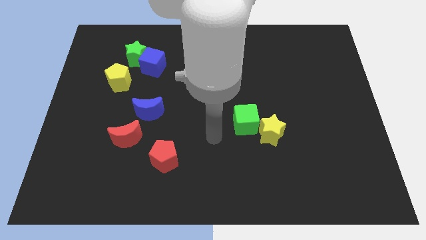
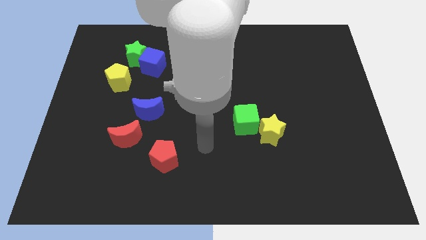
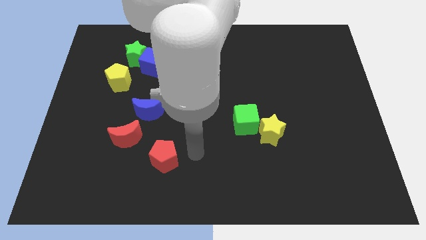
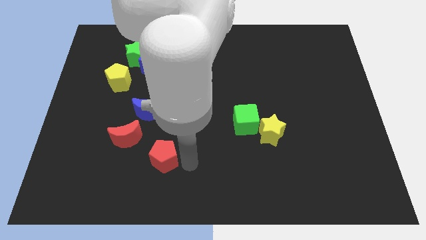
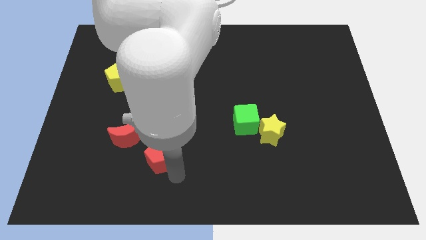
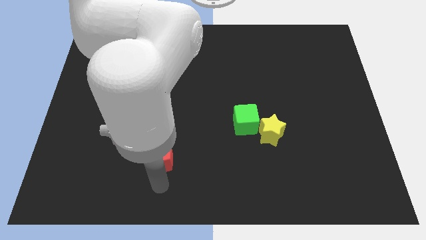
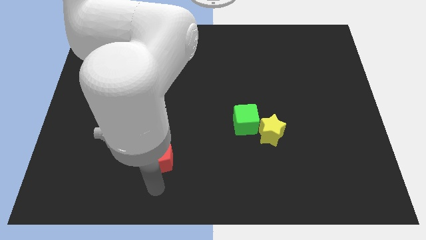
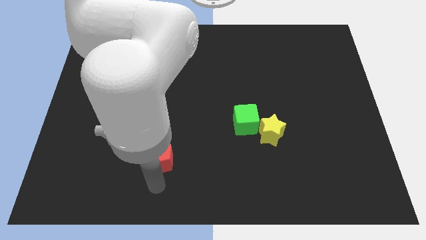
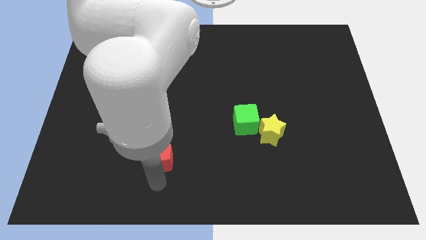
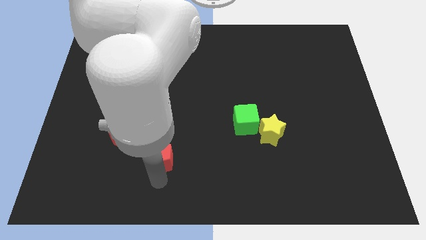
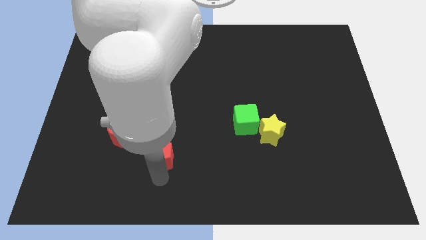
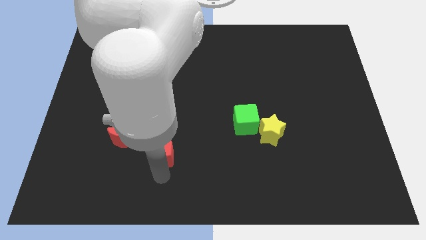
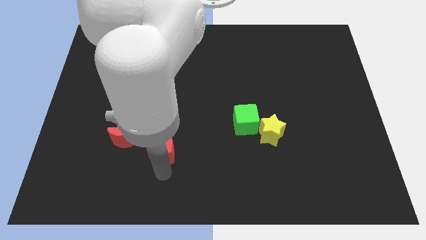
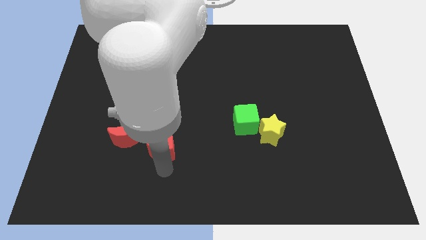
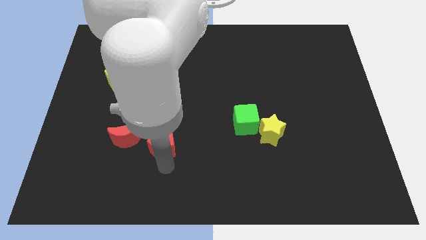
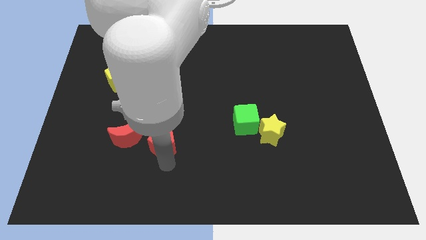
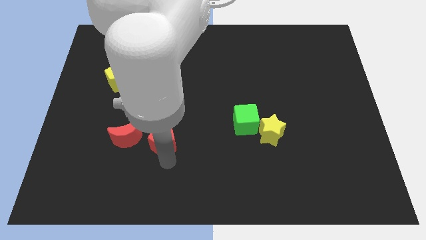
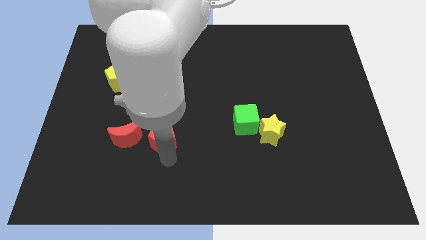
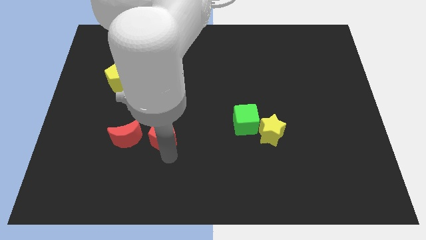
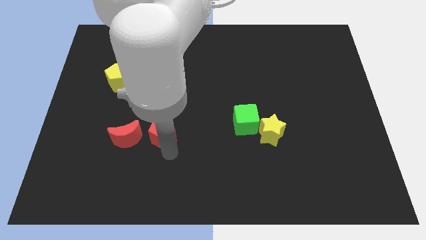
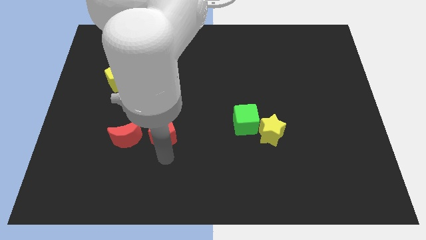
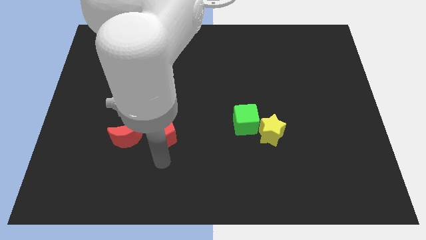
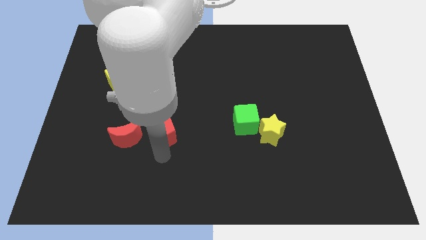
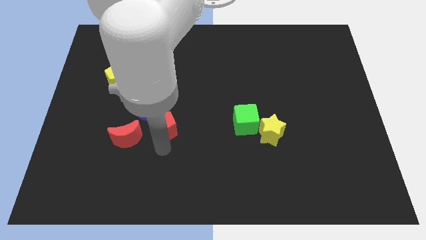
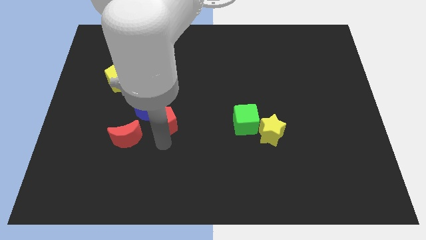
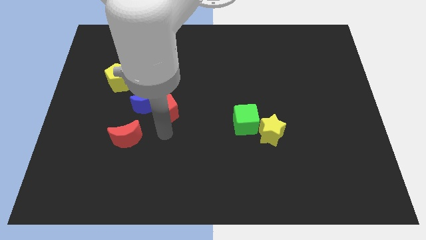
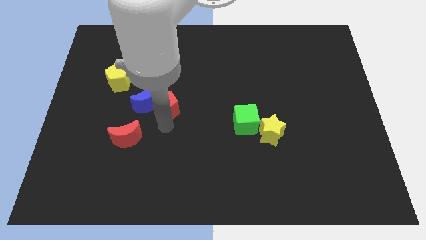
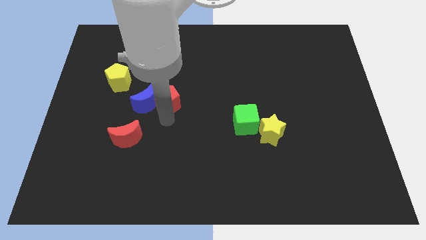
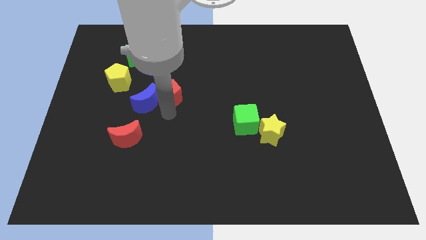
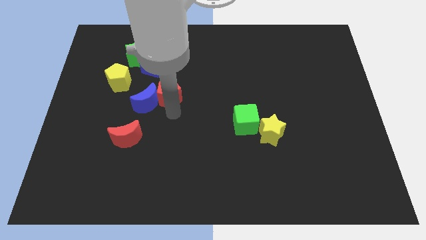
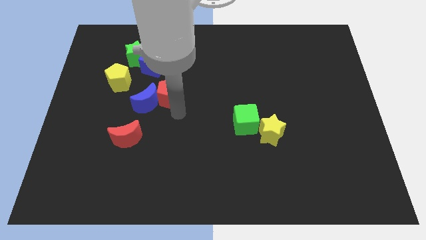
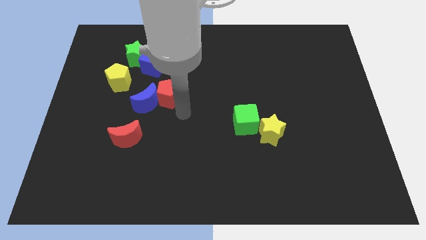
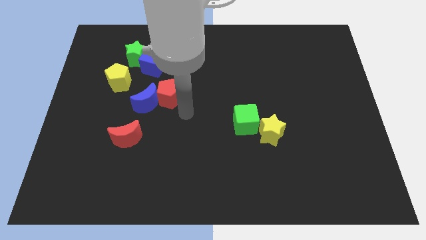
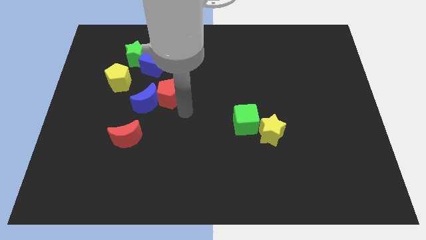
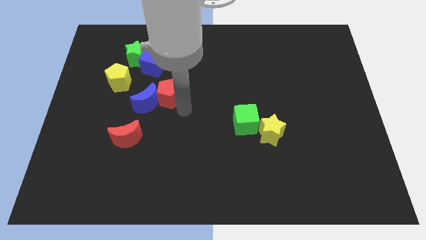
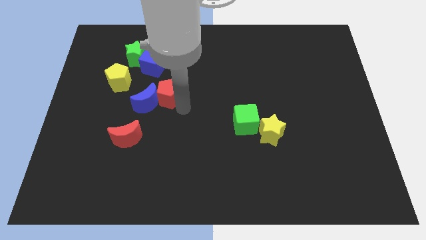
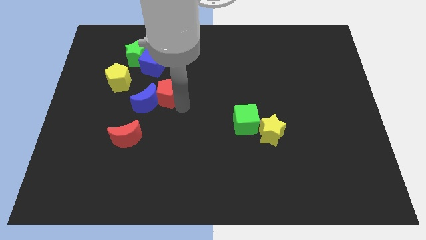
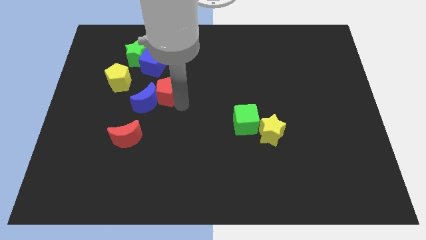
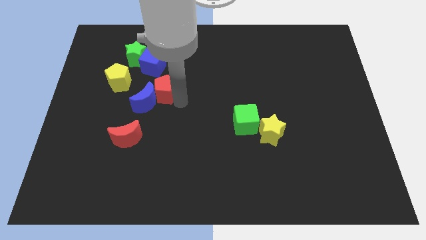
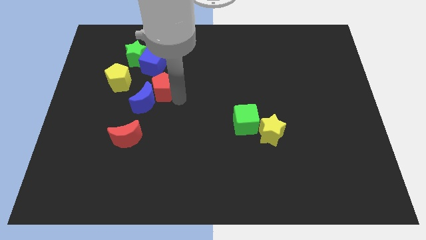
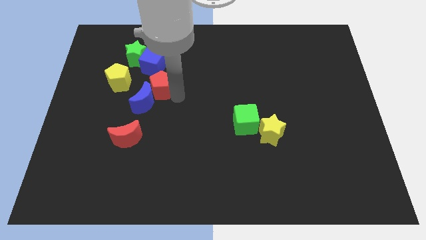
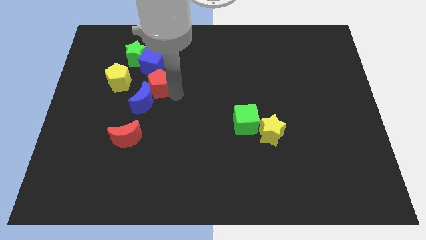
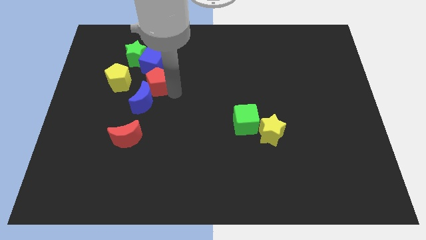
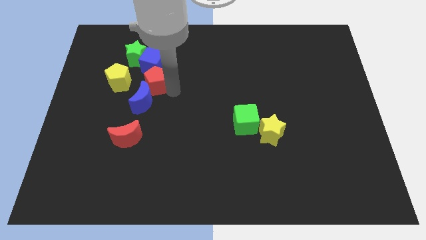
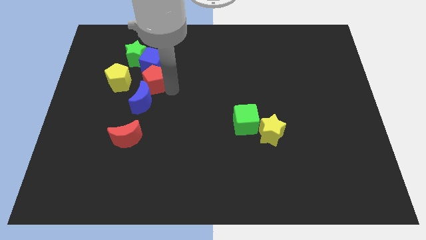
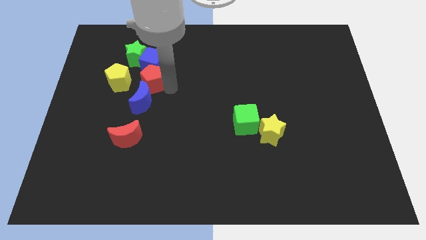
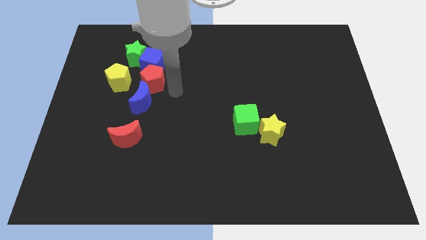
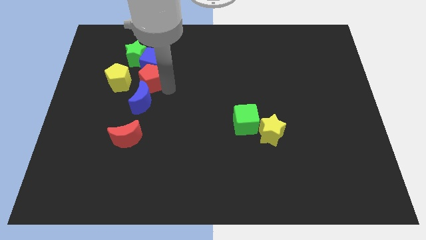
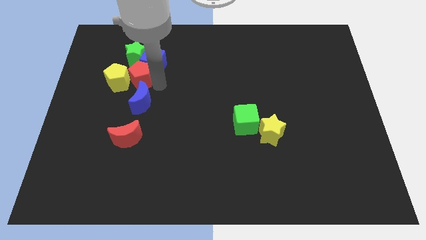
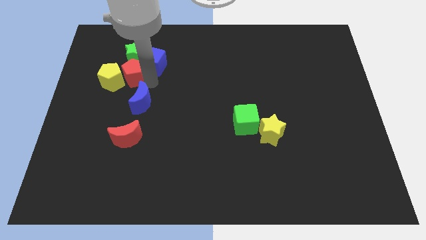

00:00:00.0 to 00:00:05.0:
push the red pentagon left of the blue cube

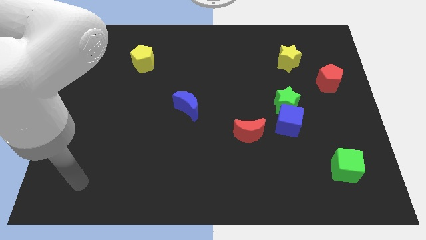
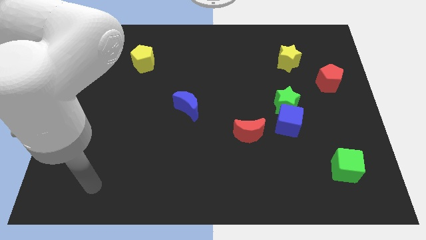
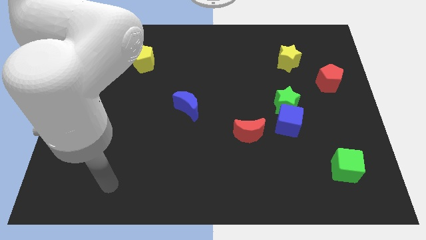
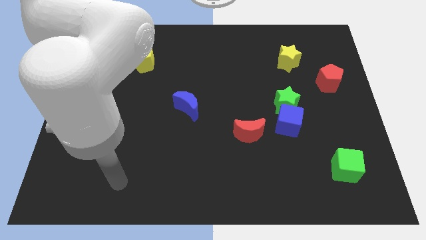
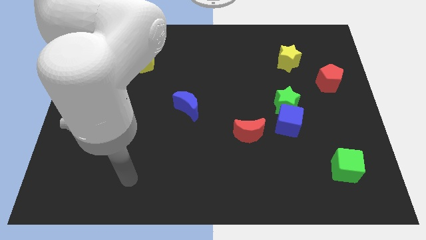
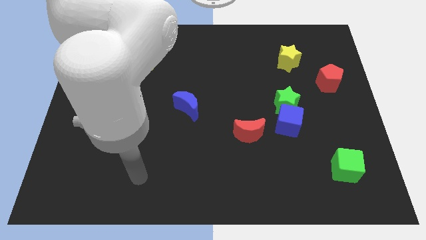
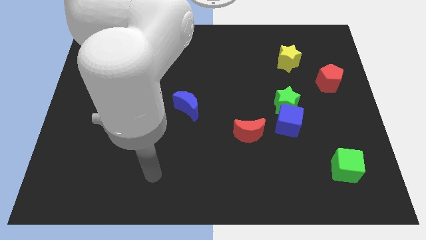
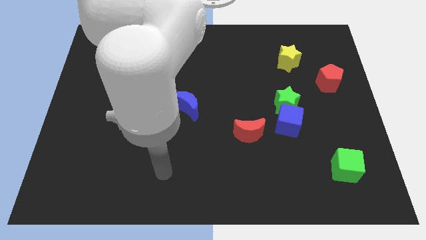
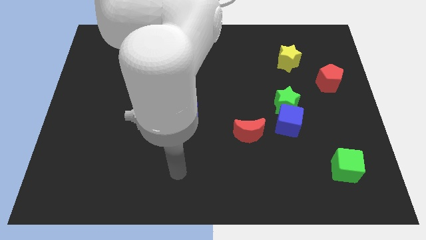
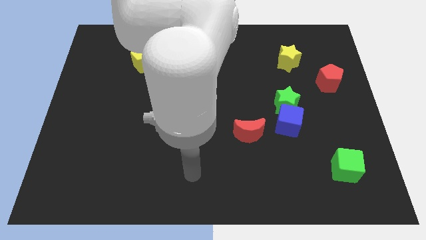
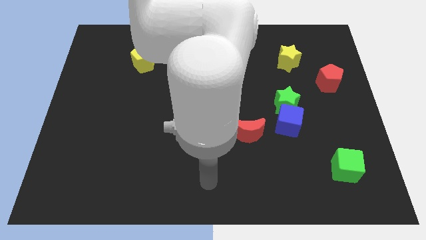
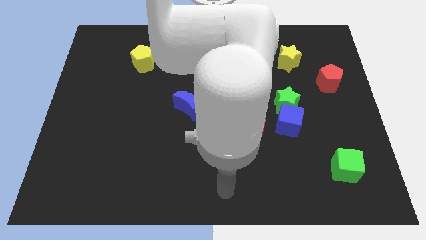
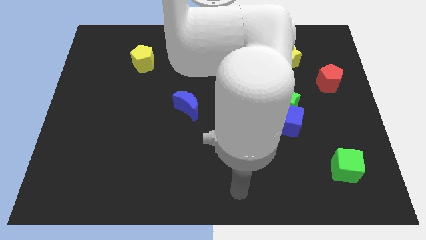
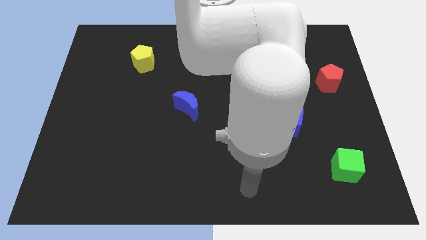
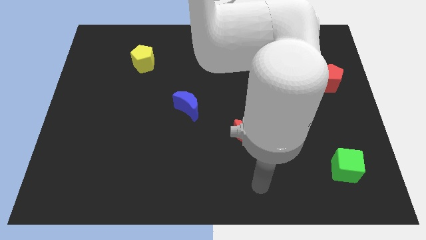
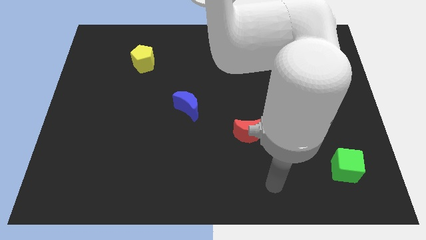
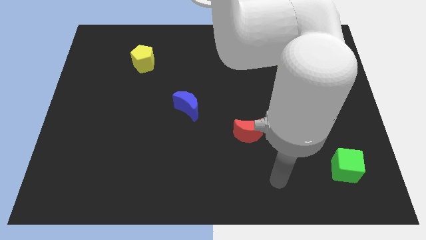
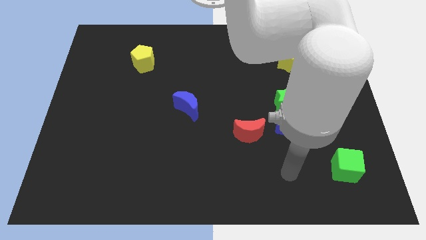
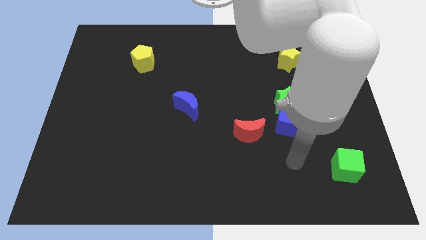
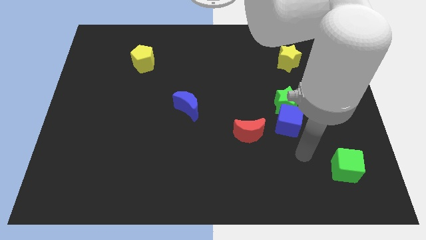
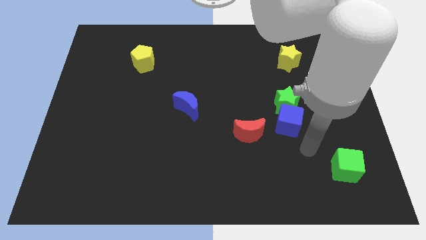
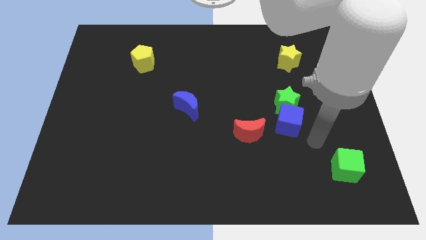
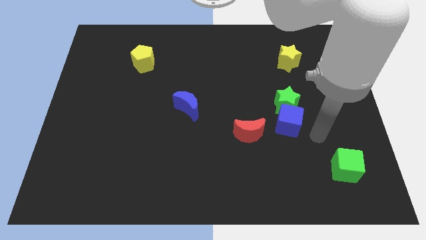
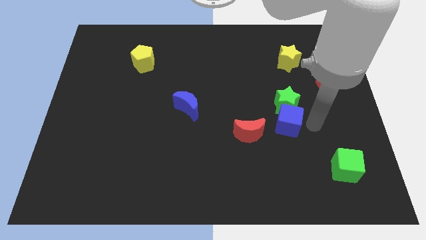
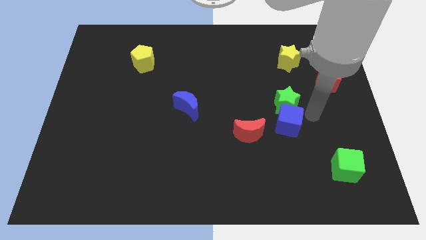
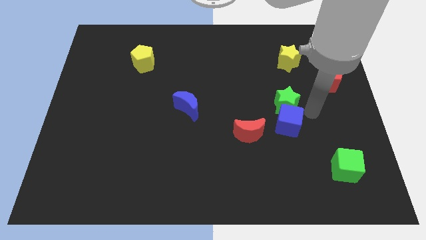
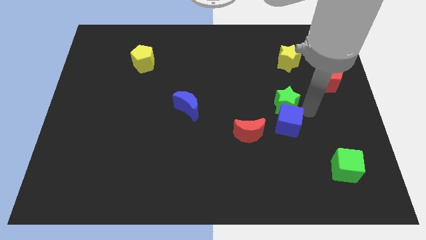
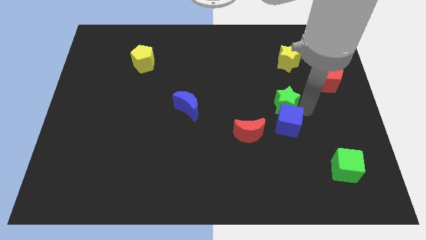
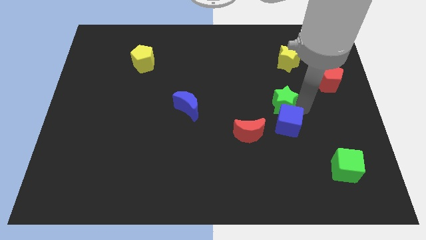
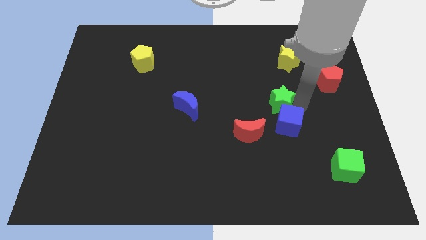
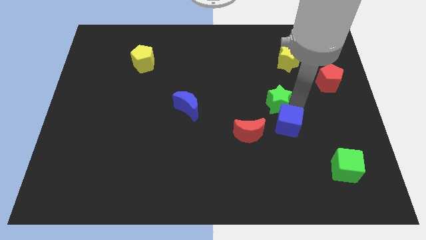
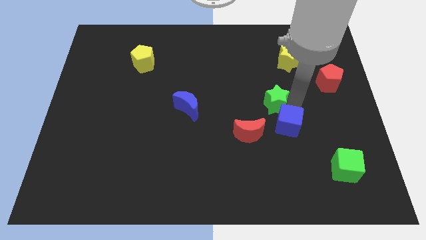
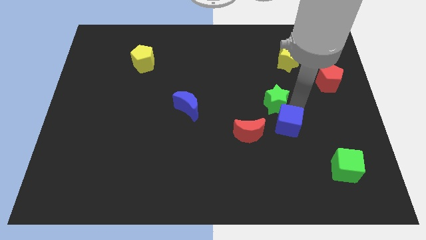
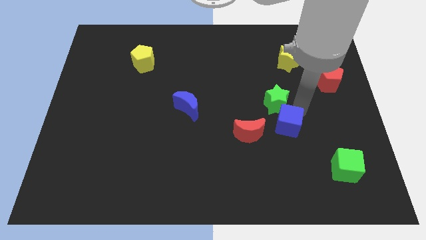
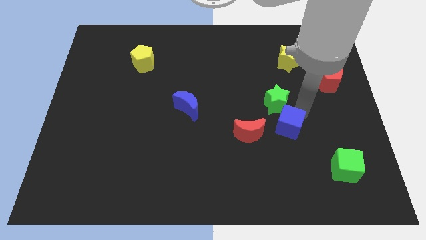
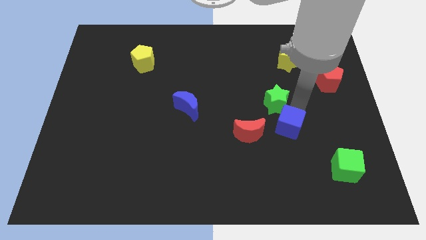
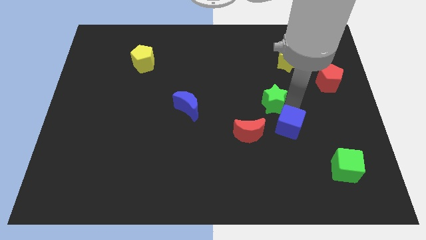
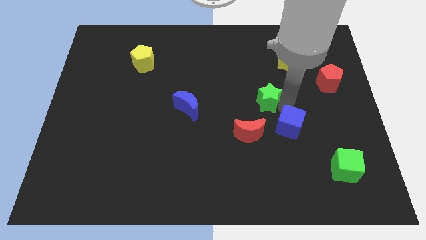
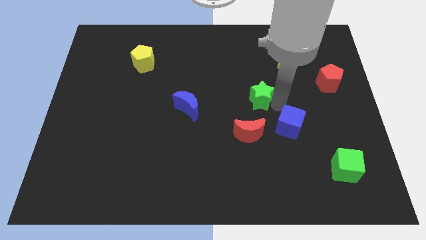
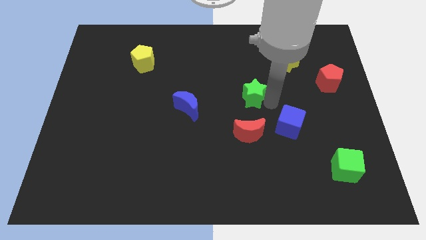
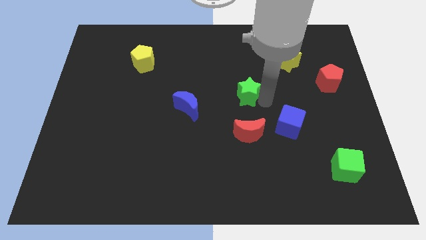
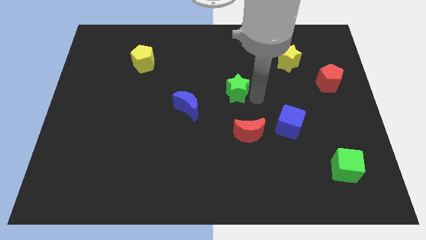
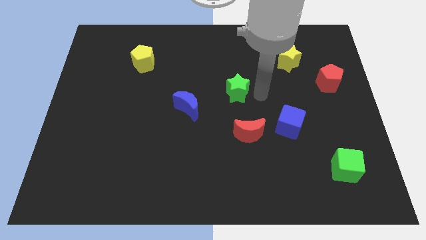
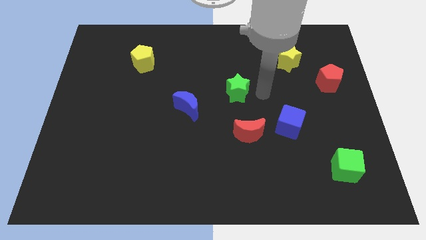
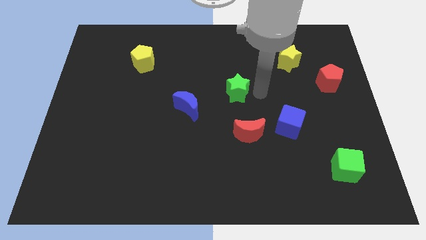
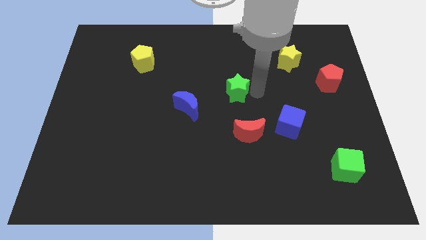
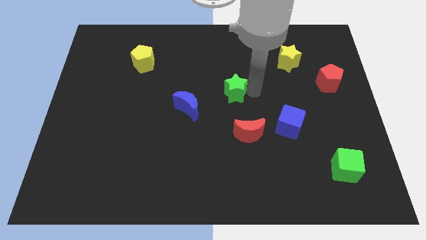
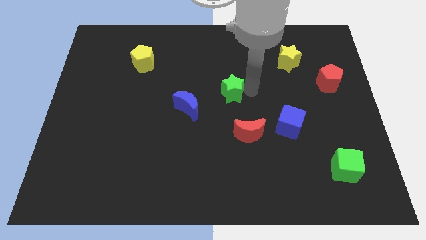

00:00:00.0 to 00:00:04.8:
push the green star to the top right side of the blue moon
